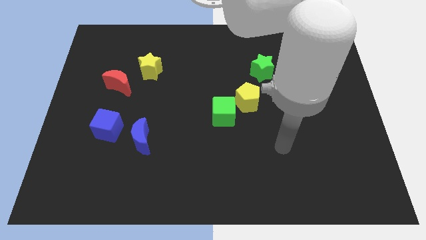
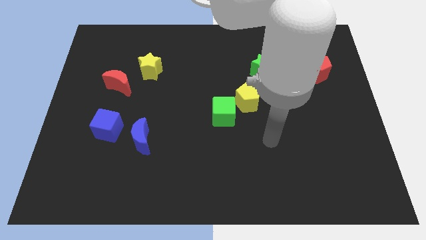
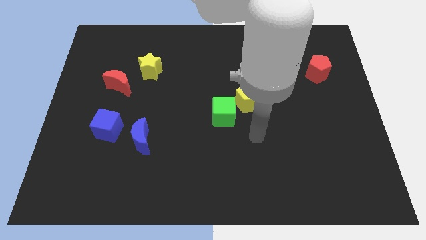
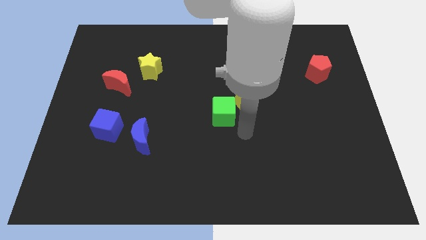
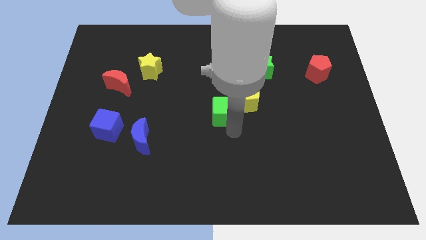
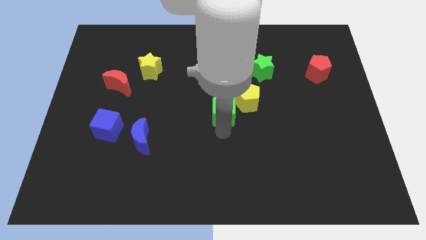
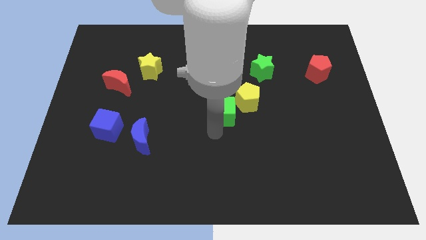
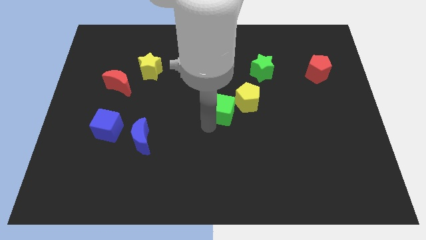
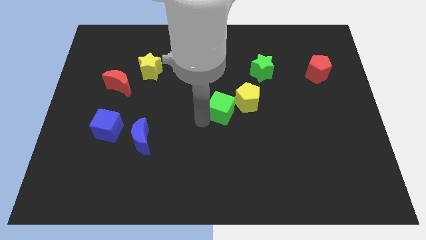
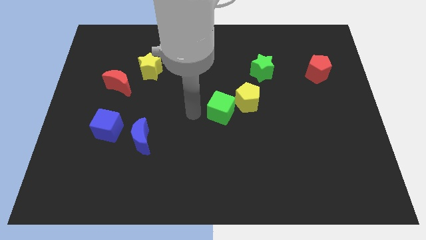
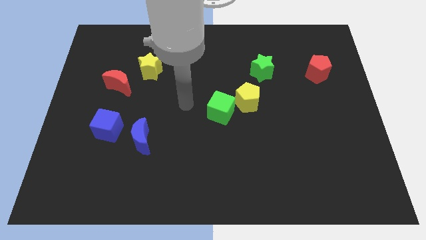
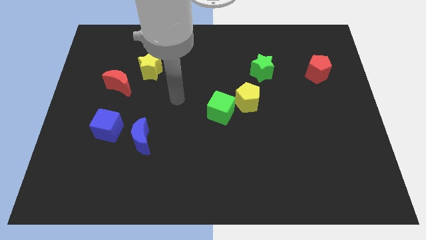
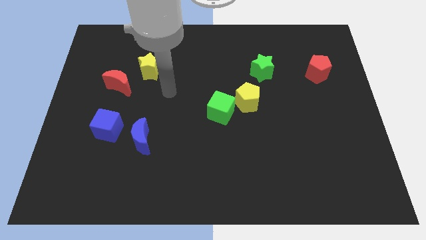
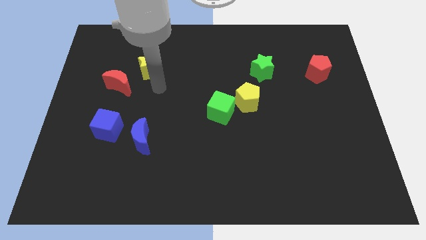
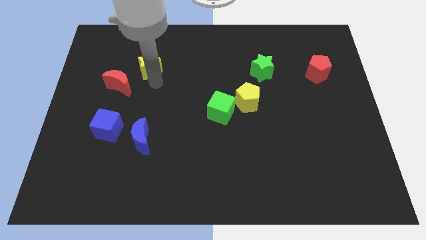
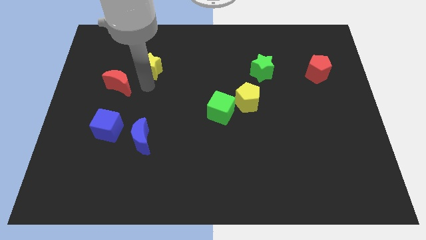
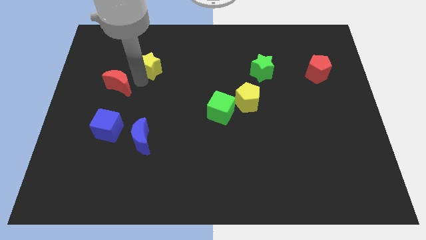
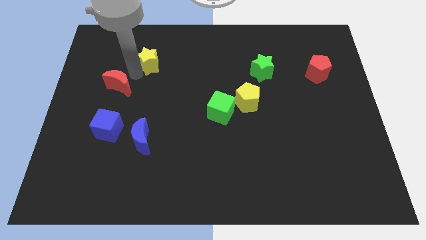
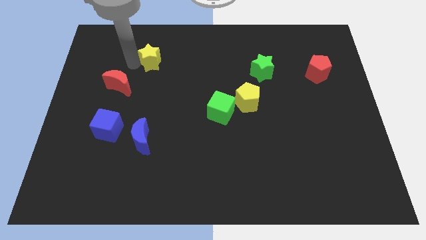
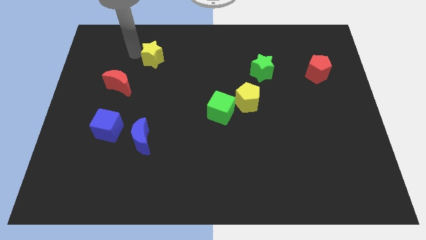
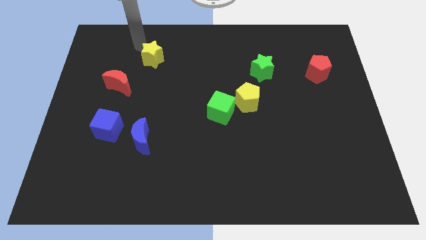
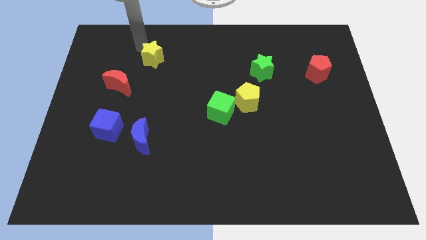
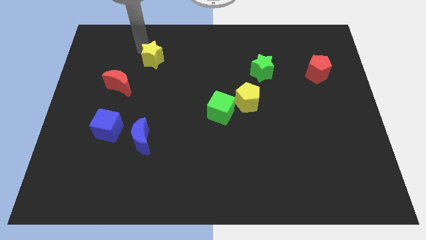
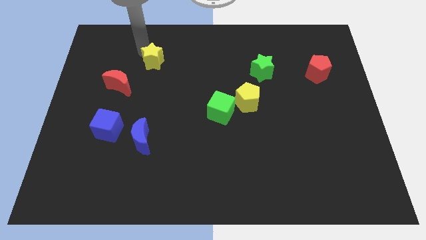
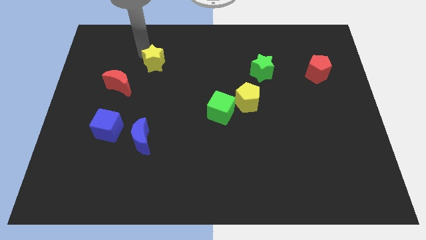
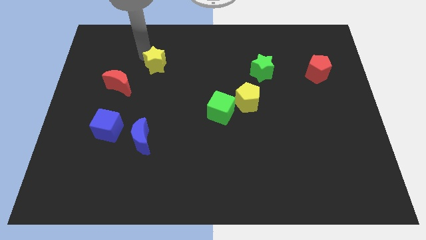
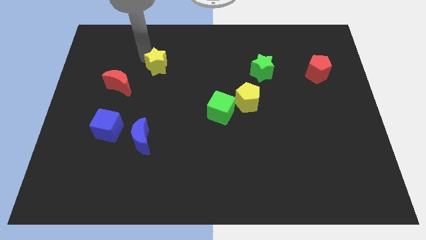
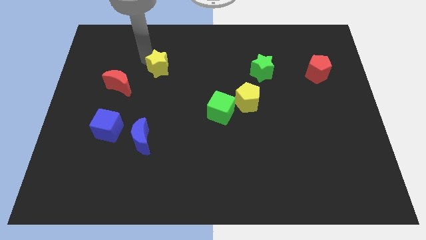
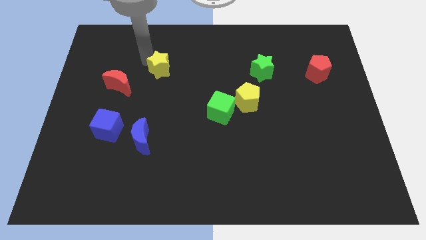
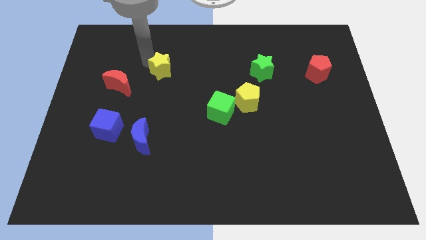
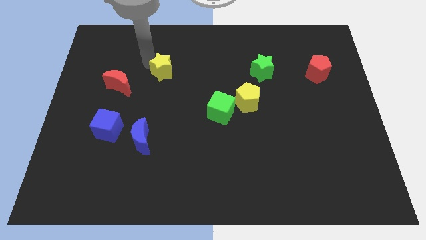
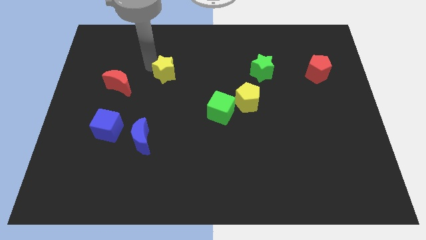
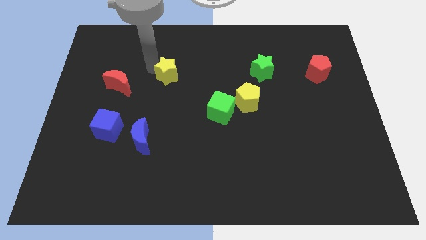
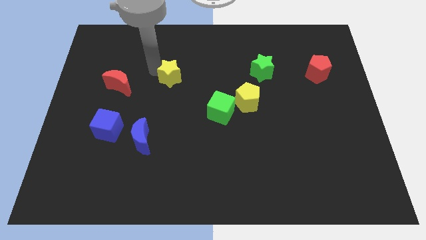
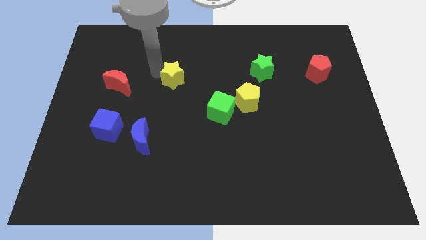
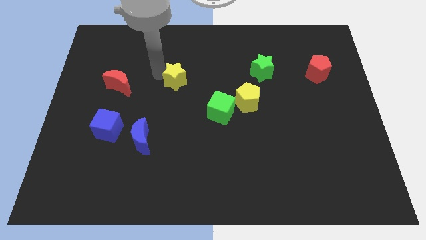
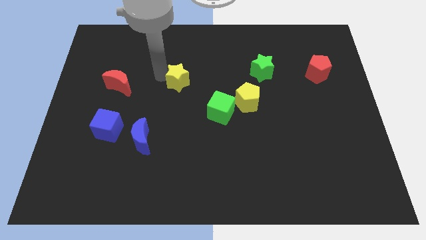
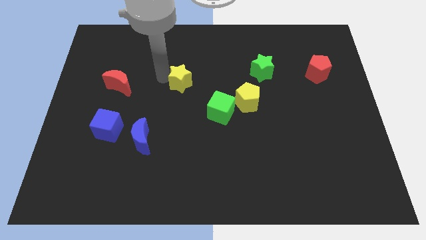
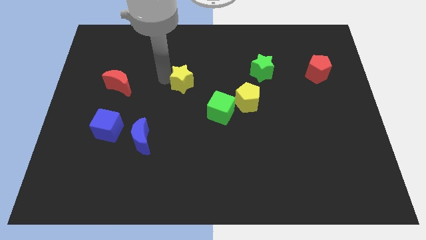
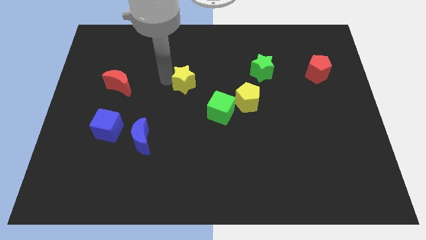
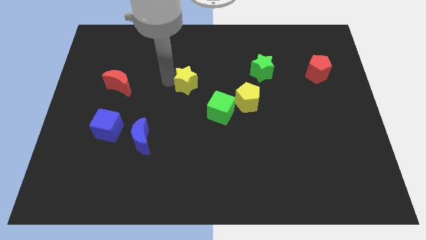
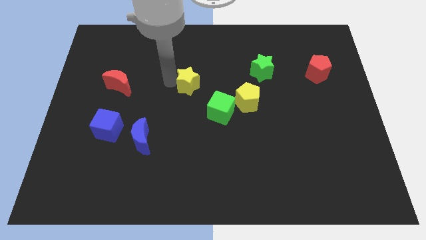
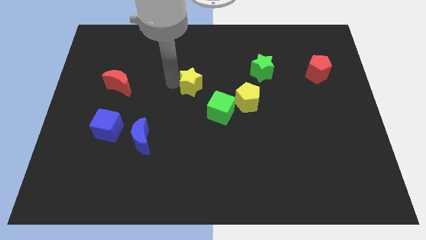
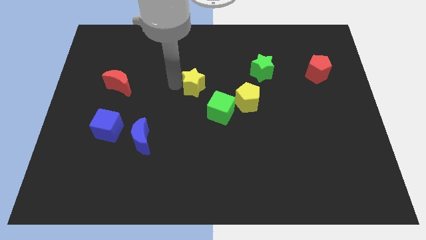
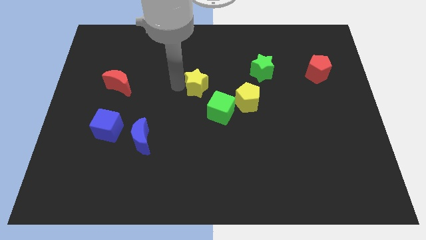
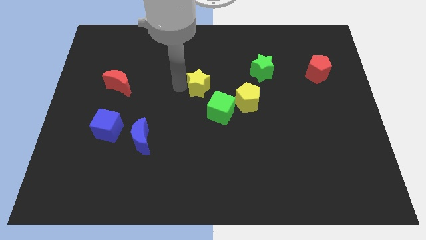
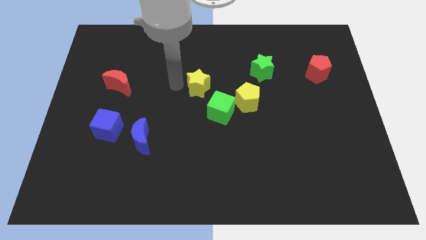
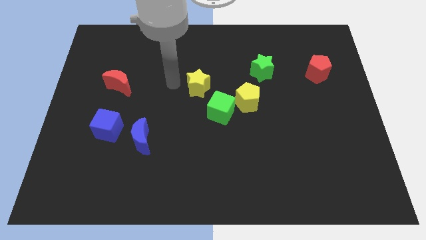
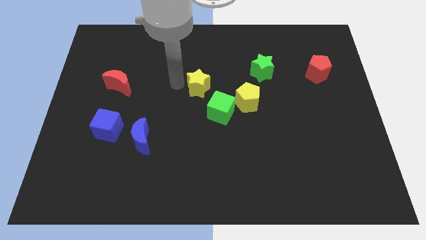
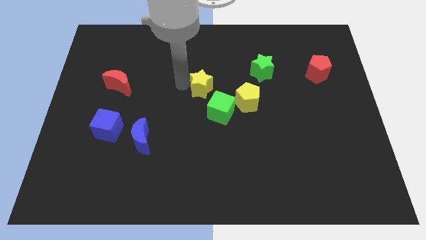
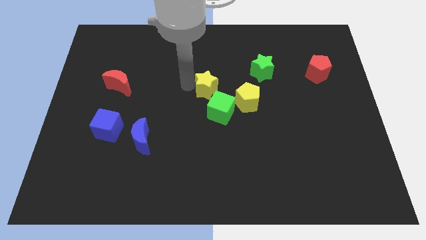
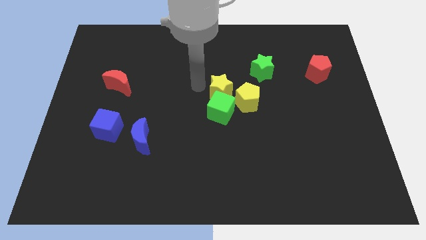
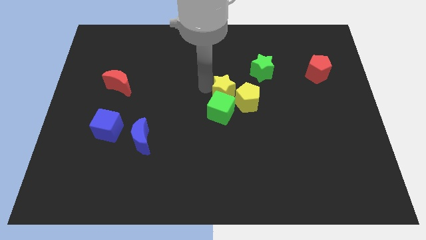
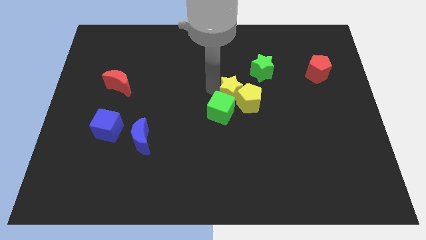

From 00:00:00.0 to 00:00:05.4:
slide the yellow star to the yellow pentagon

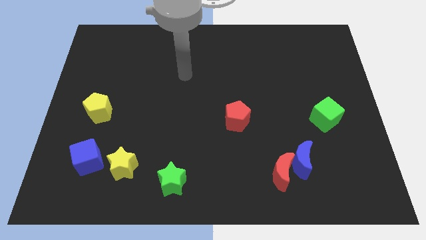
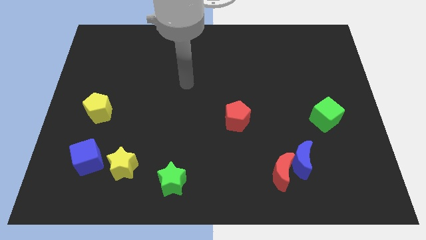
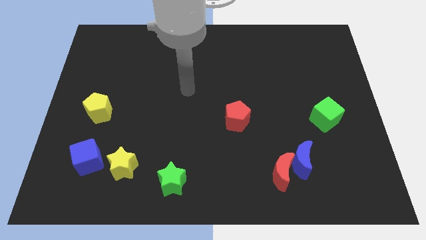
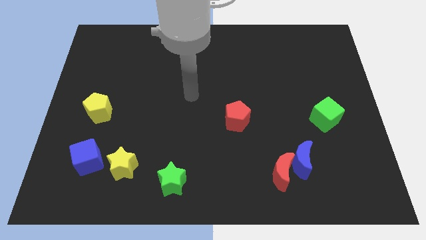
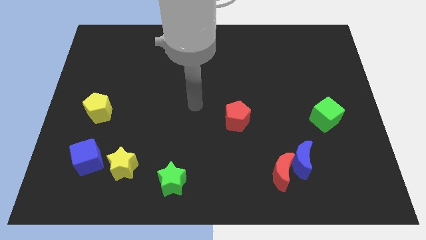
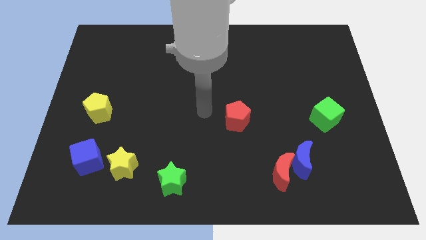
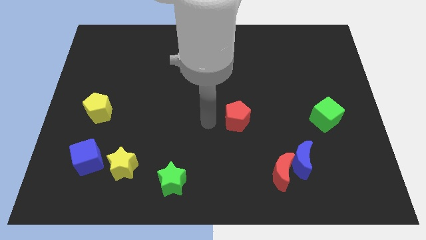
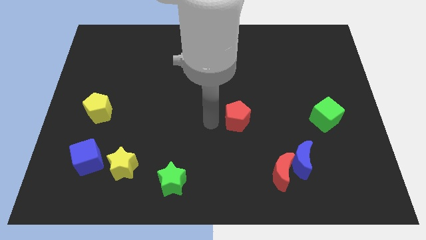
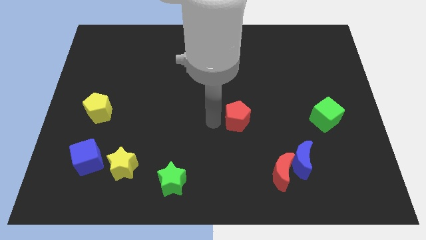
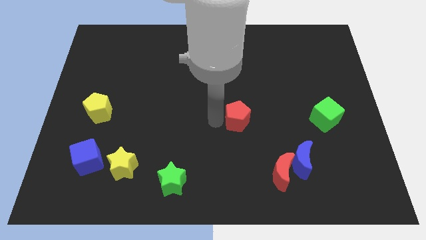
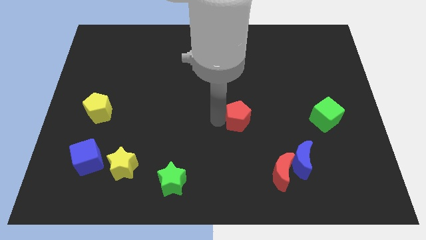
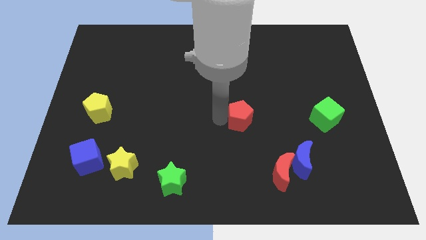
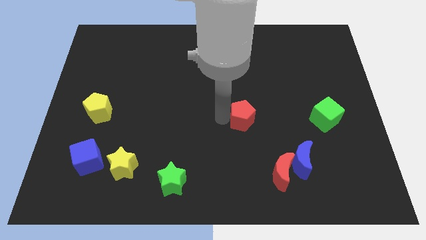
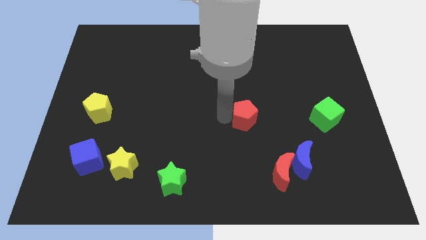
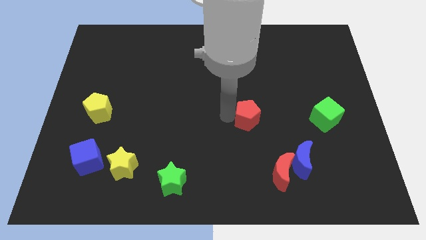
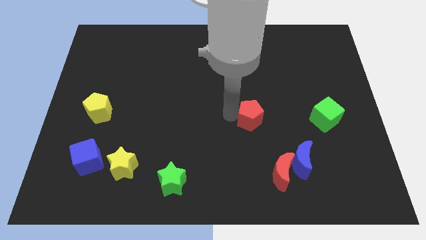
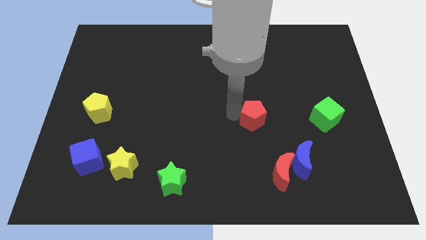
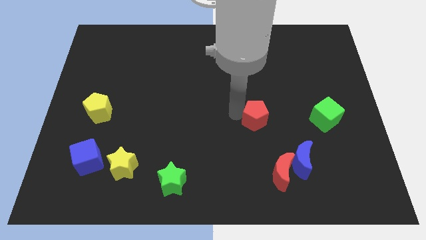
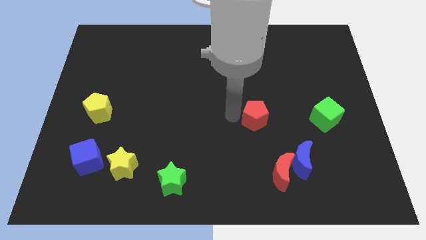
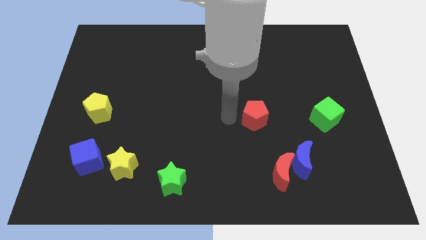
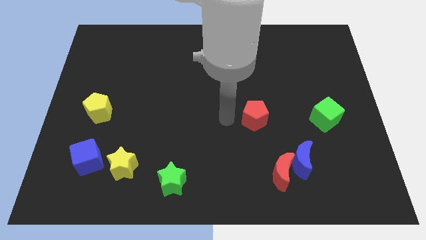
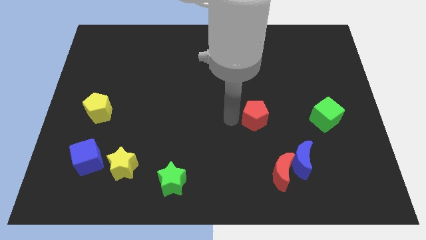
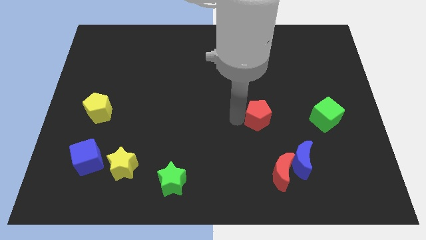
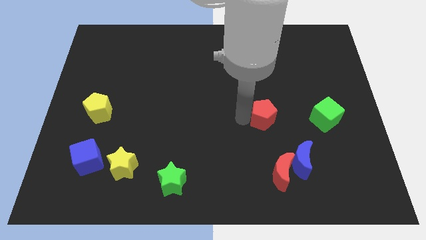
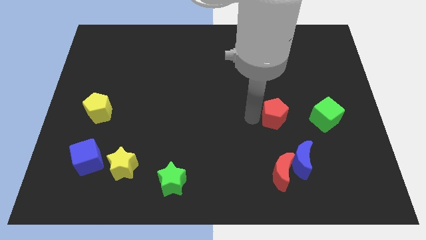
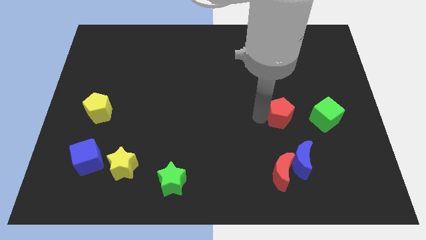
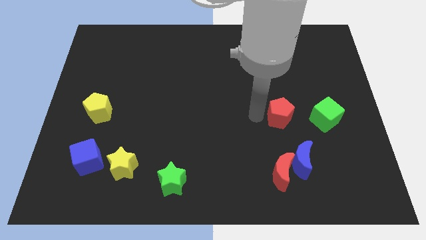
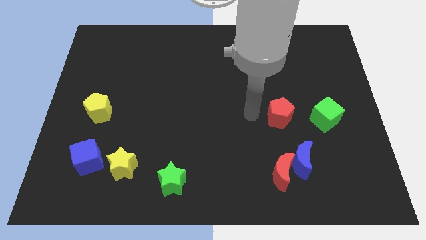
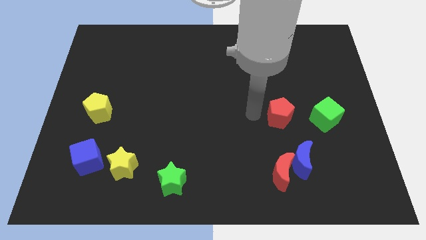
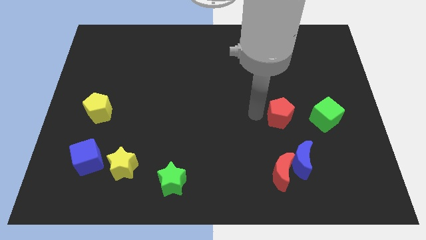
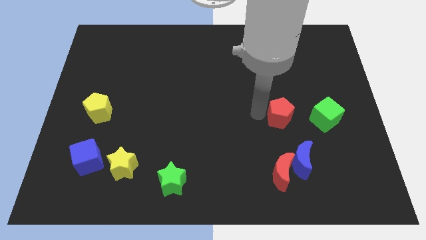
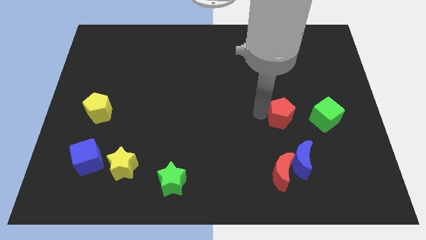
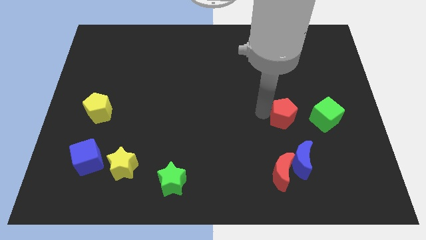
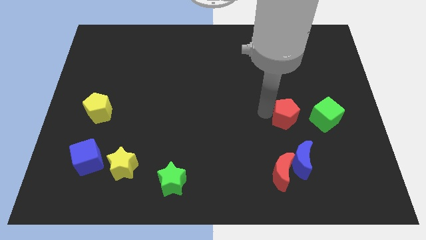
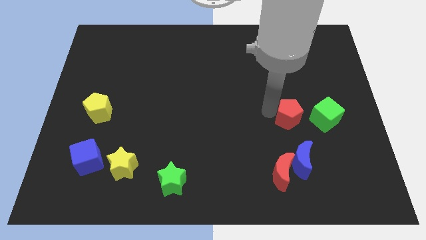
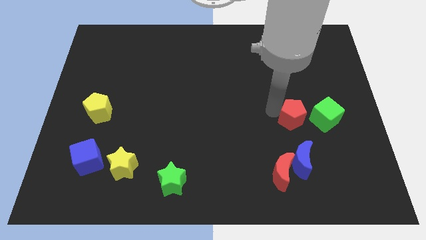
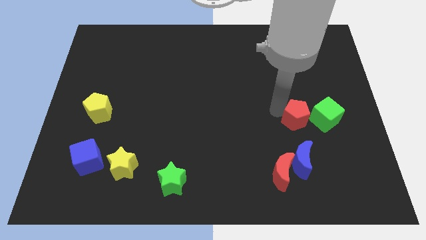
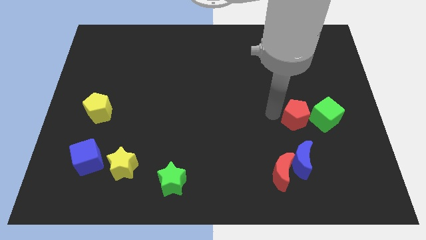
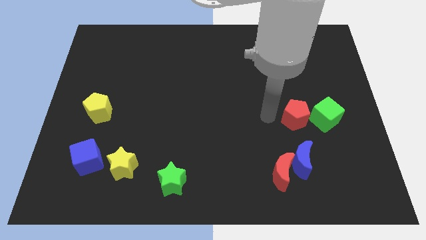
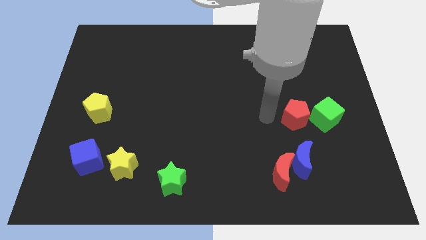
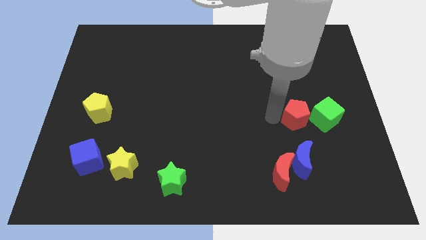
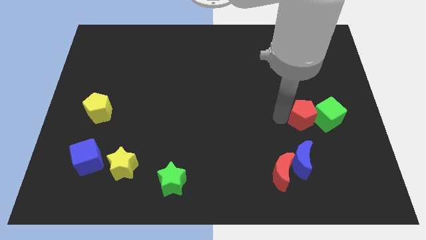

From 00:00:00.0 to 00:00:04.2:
slide the red pentagon close to the green cube
